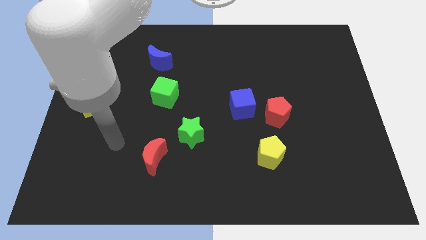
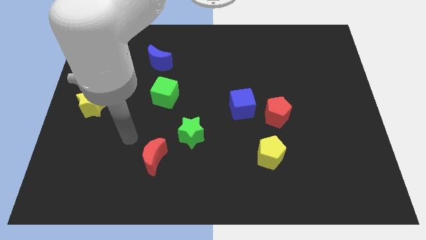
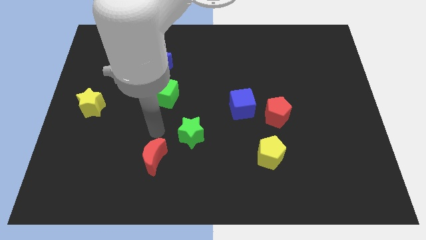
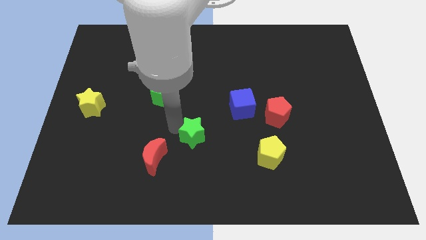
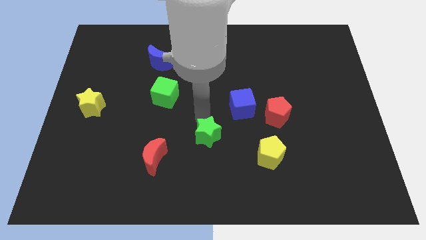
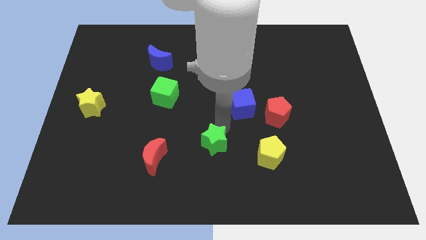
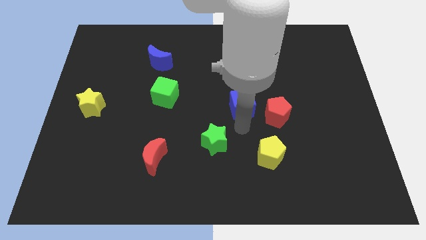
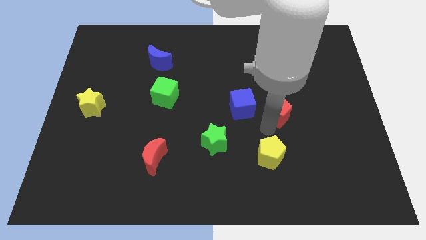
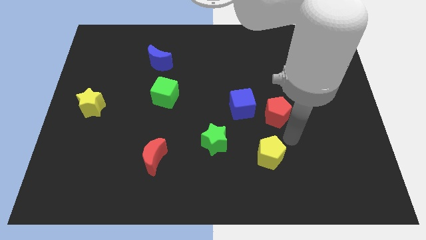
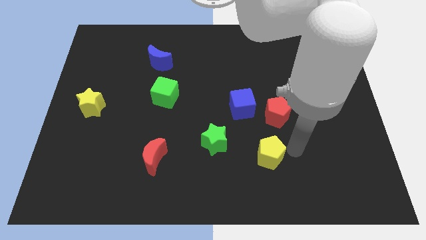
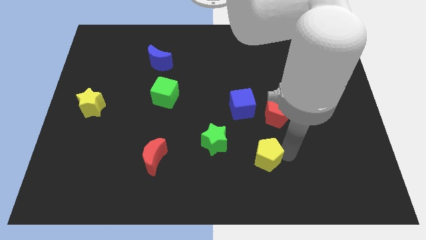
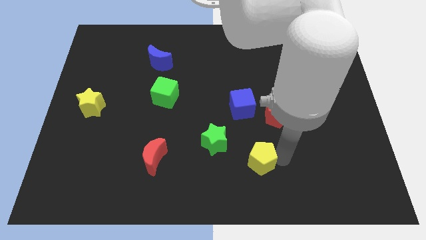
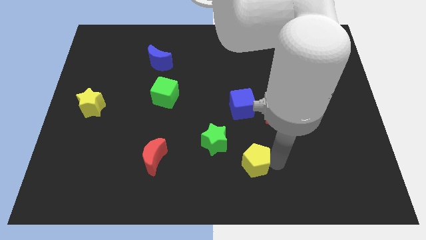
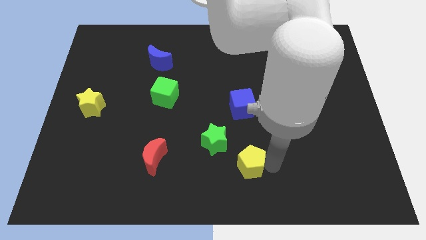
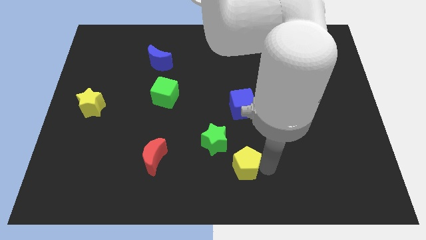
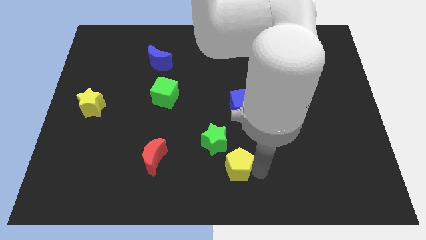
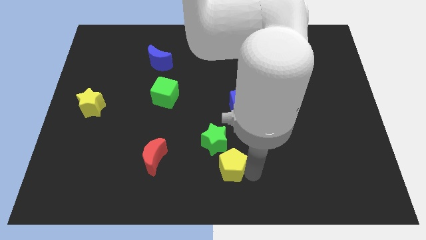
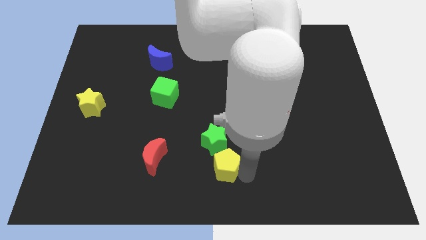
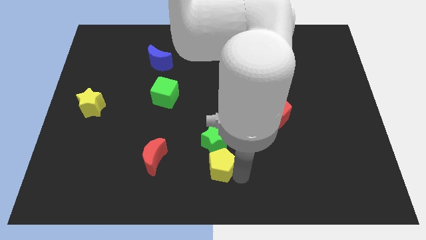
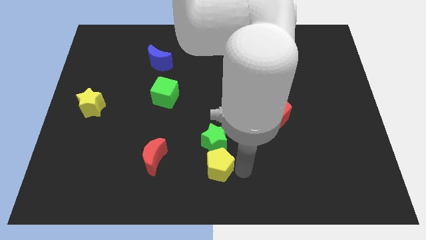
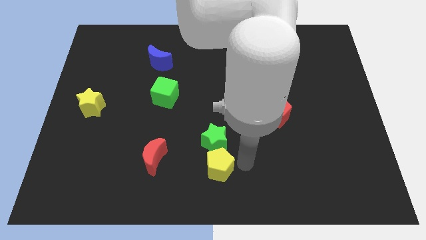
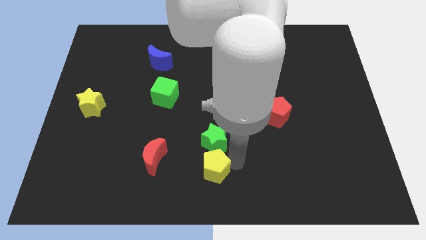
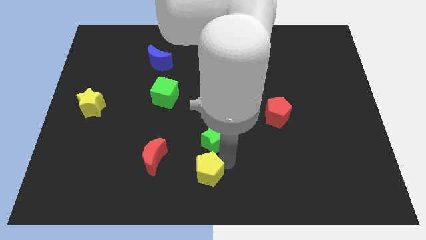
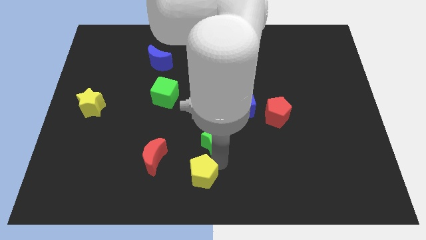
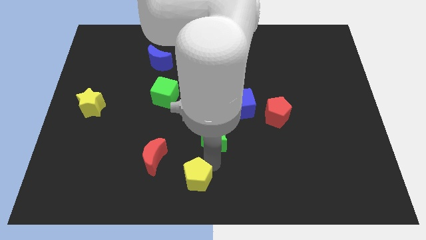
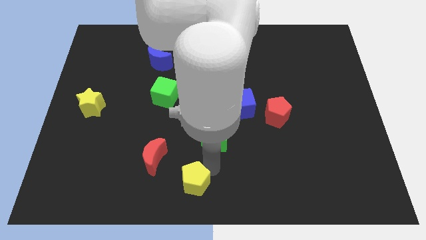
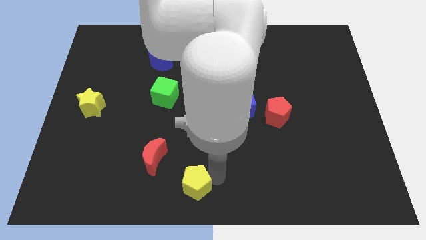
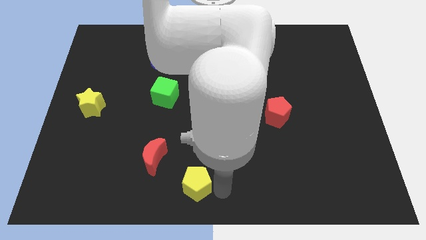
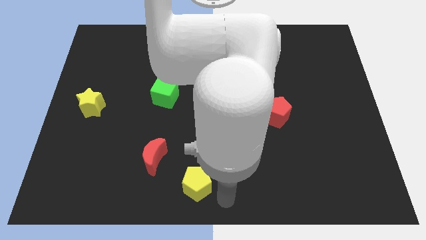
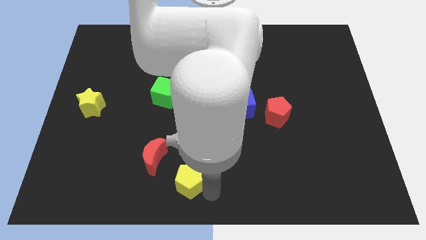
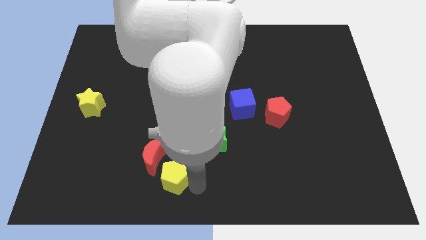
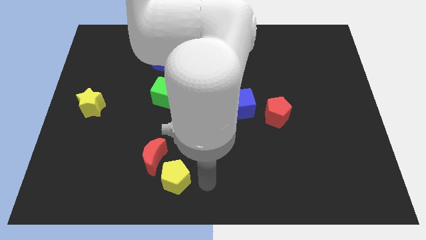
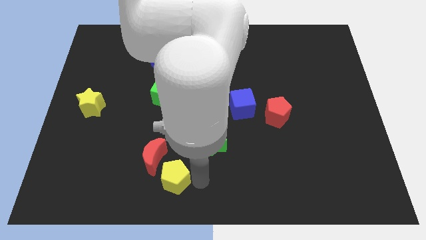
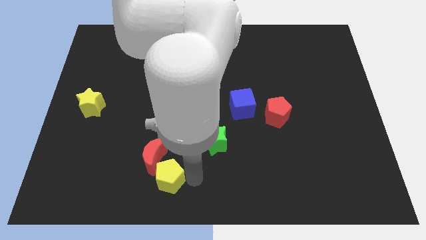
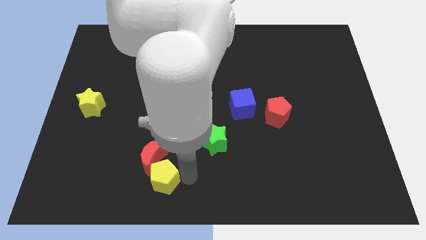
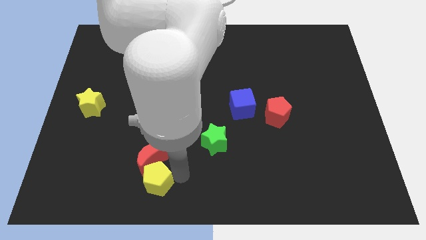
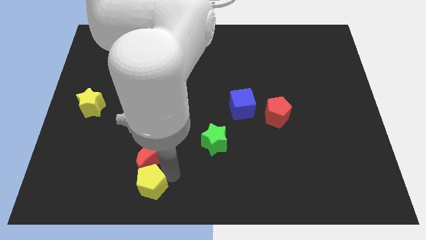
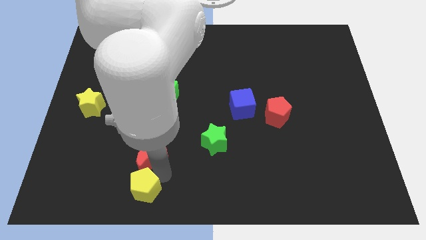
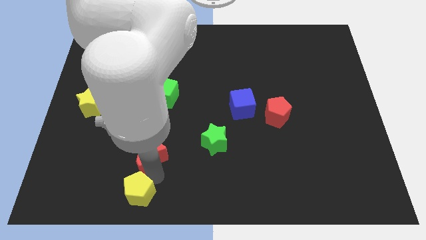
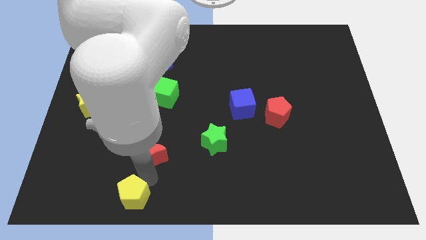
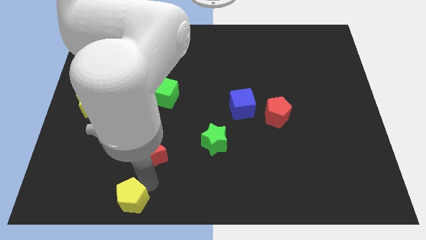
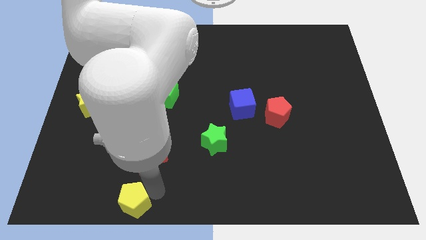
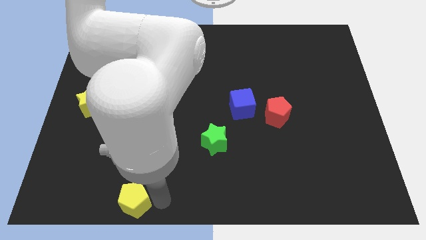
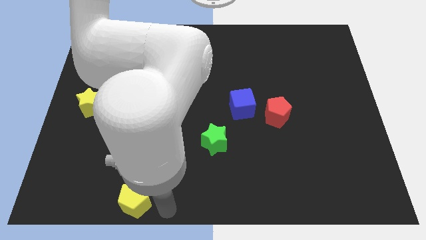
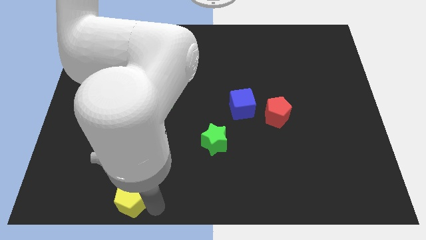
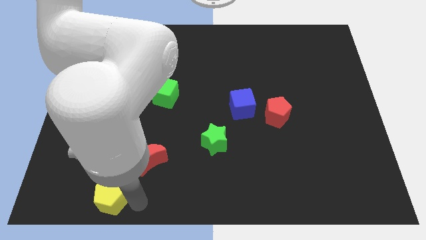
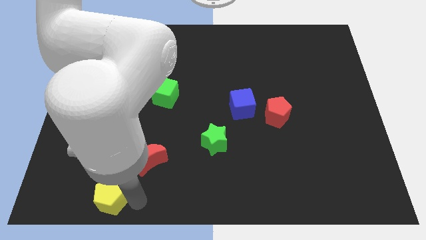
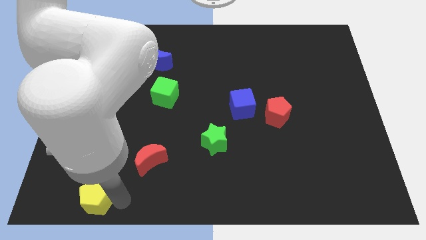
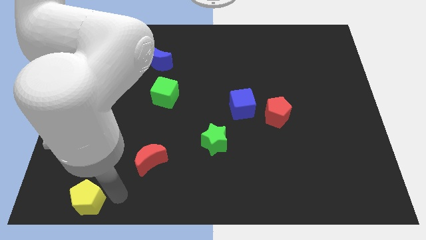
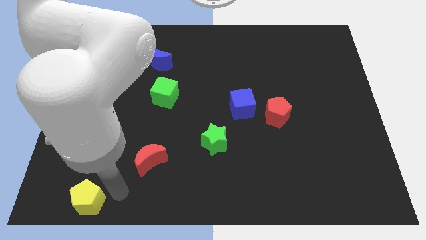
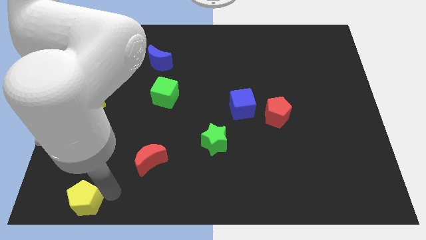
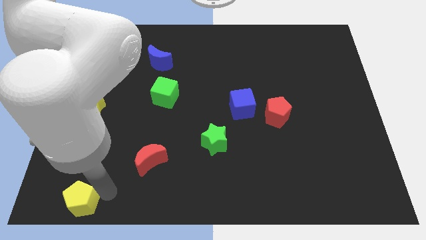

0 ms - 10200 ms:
slide the yellow pentagon to the bottom left corner

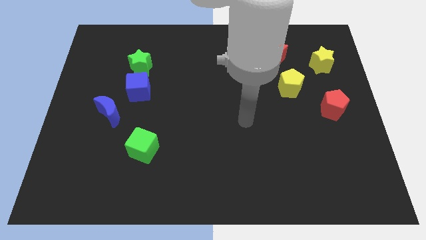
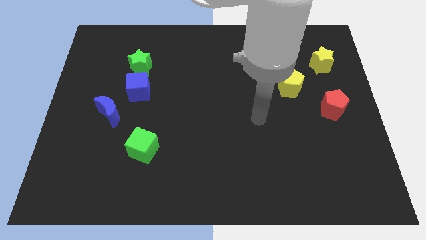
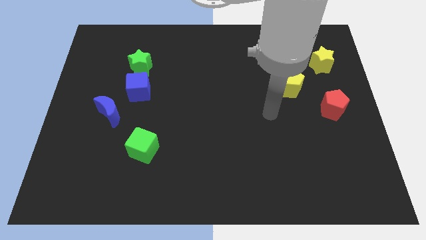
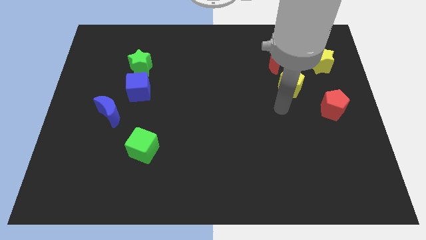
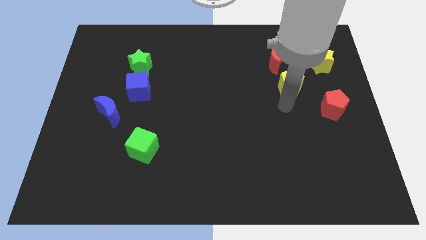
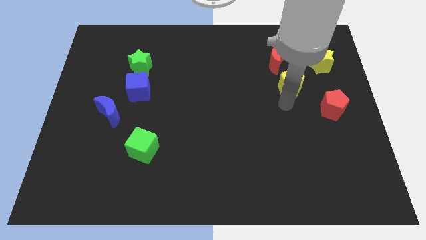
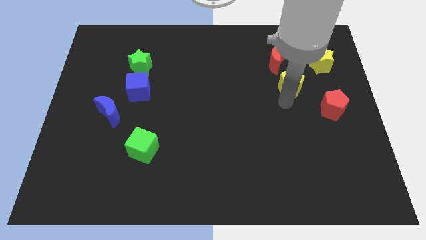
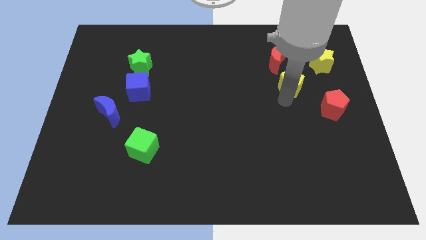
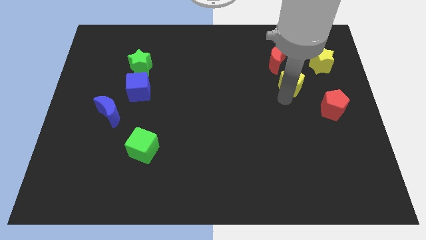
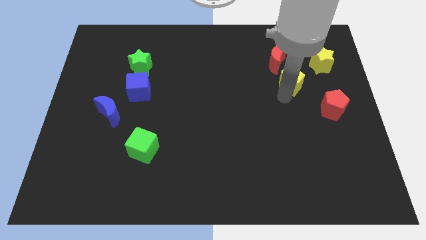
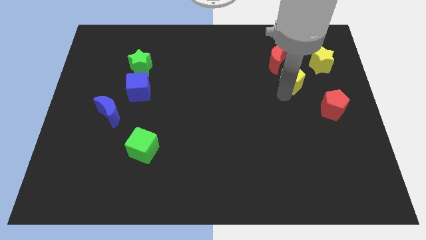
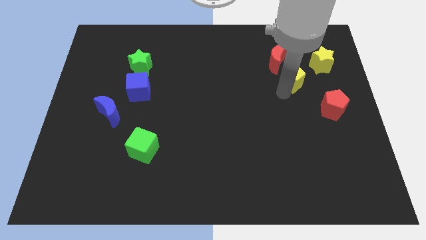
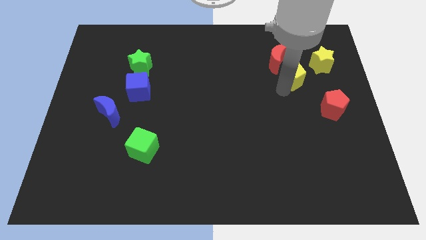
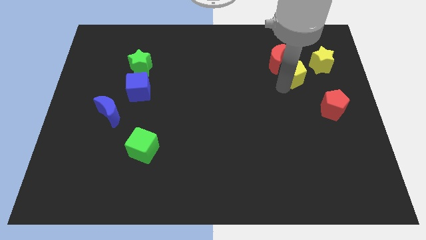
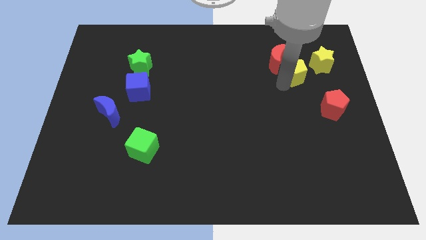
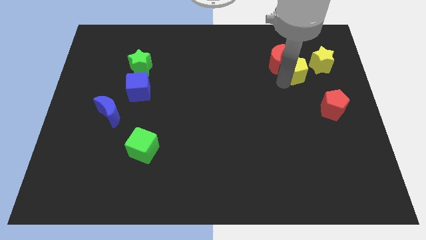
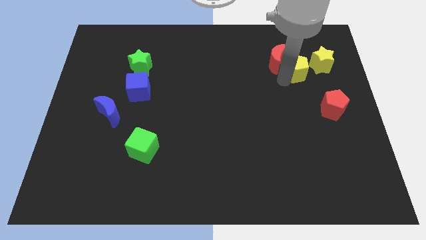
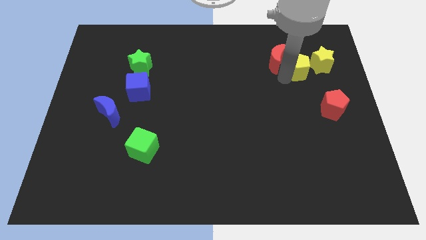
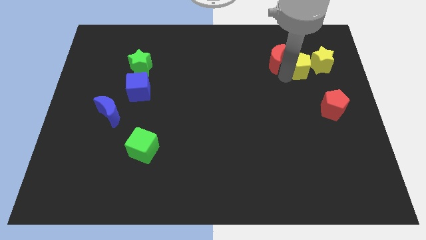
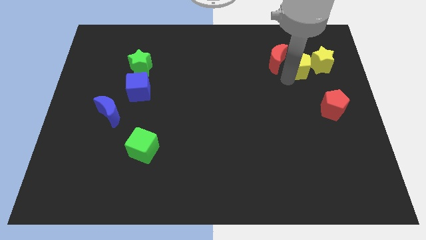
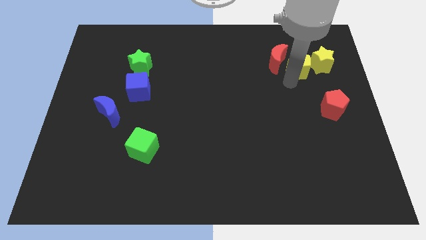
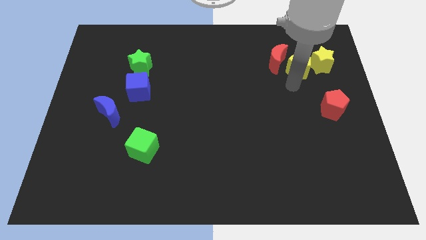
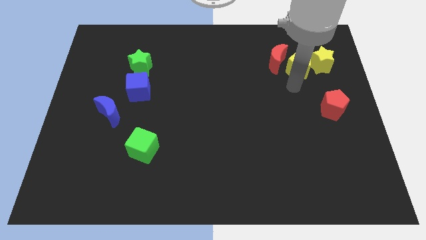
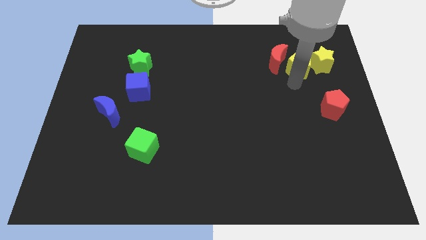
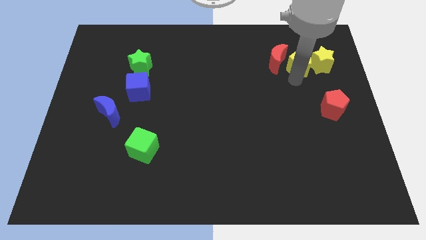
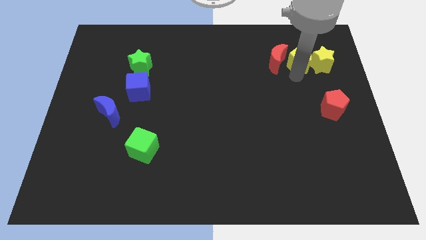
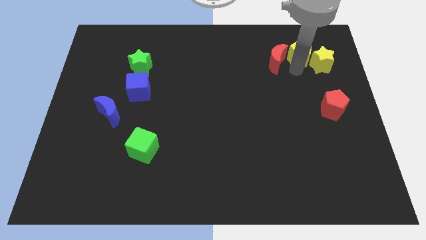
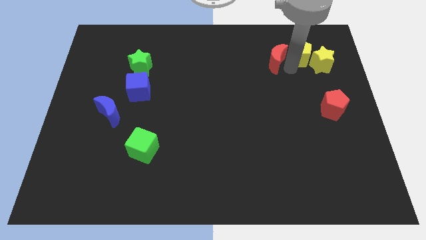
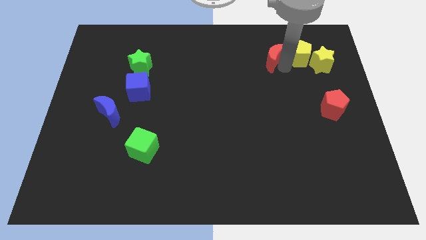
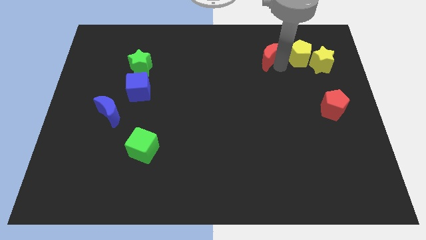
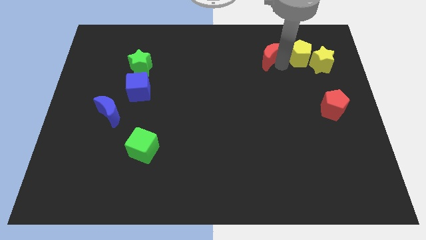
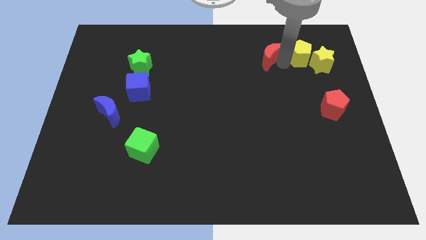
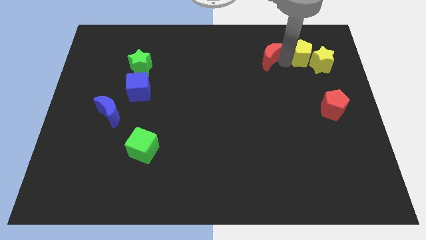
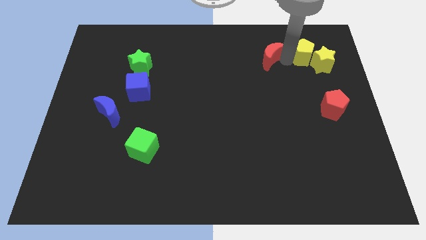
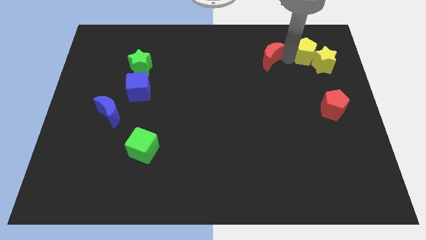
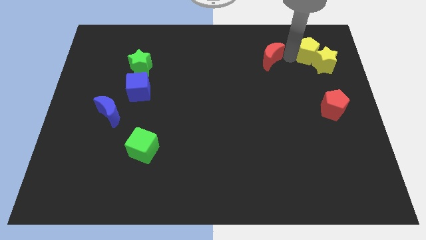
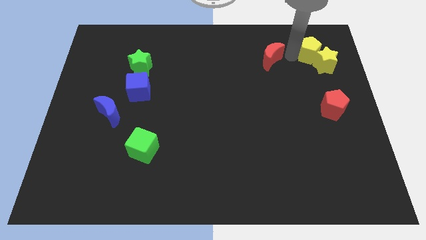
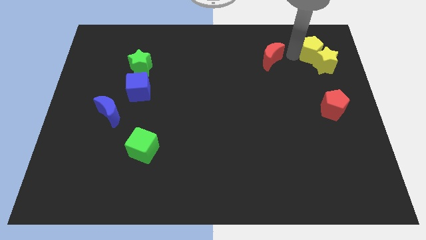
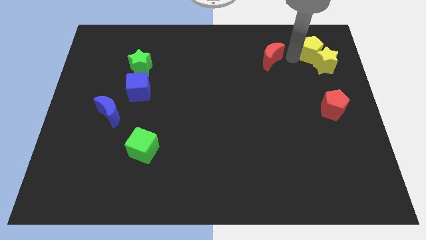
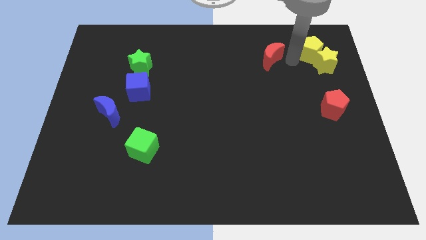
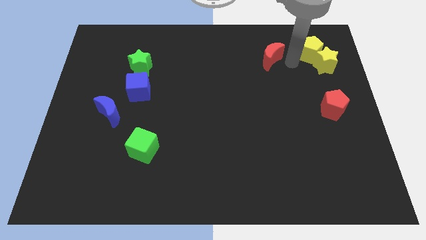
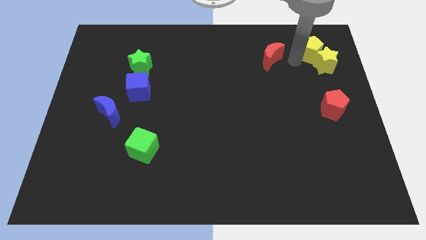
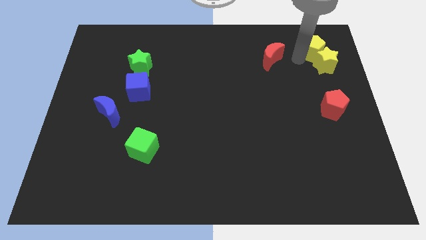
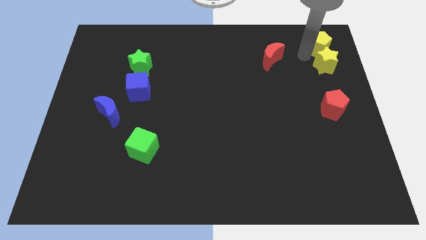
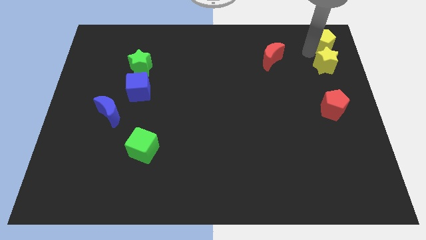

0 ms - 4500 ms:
put the yellow pentagon to the top right of the board
